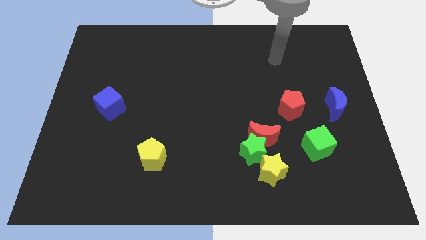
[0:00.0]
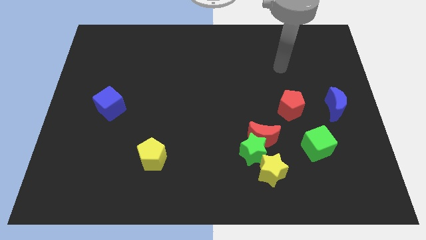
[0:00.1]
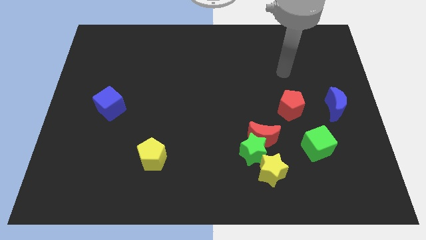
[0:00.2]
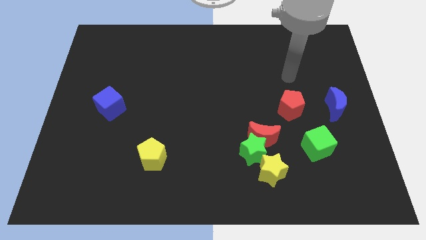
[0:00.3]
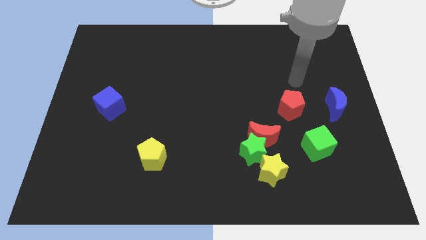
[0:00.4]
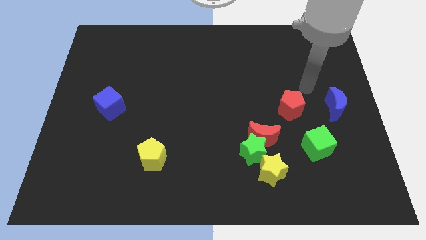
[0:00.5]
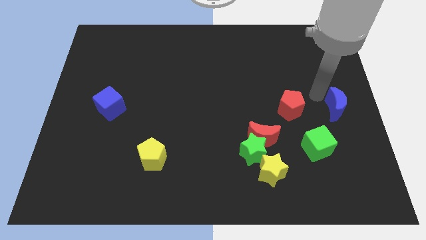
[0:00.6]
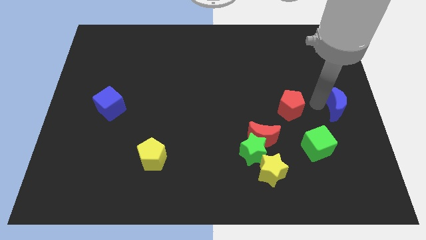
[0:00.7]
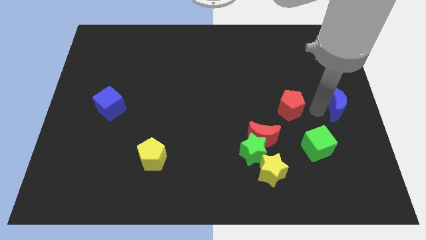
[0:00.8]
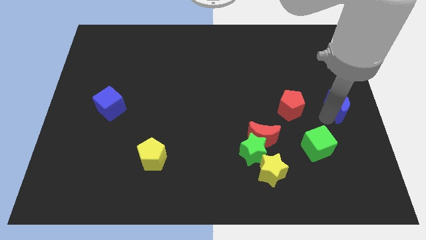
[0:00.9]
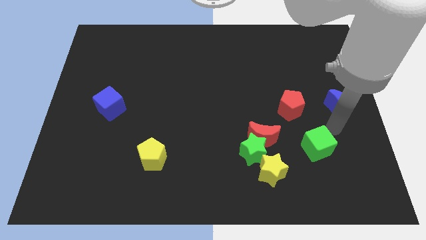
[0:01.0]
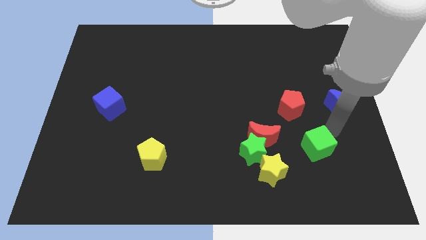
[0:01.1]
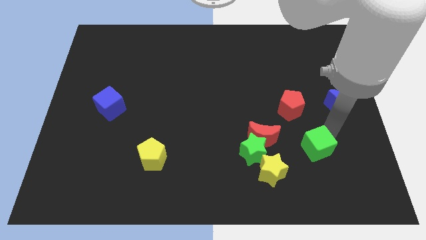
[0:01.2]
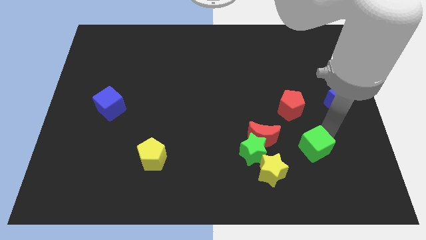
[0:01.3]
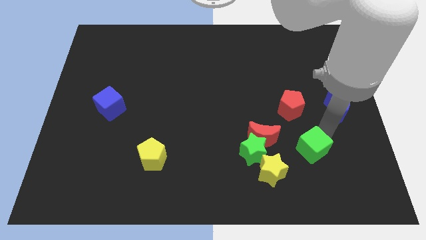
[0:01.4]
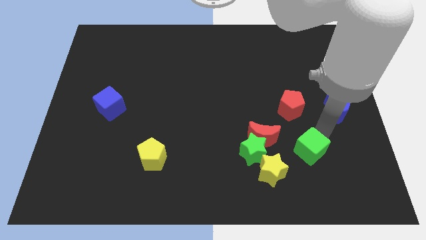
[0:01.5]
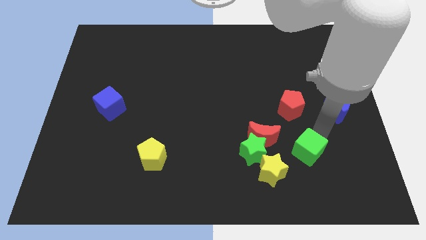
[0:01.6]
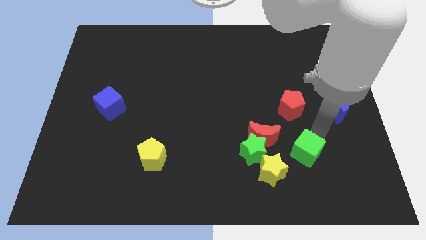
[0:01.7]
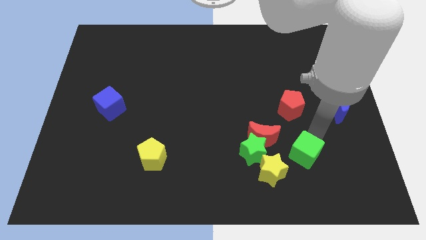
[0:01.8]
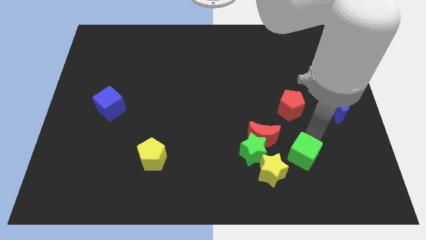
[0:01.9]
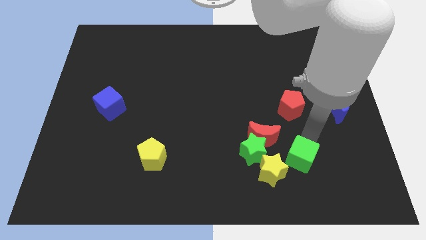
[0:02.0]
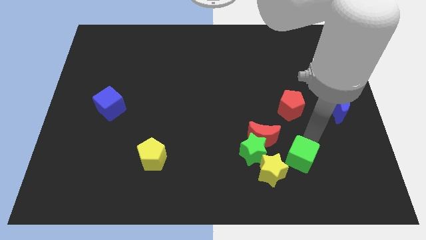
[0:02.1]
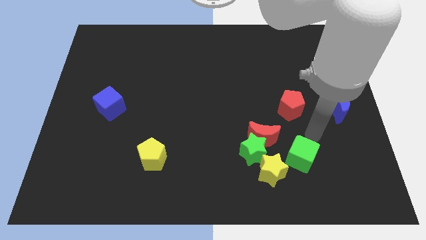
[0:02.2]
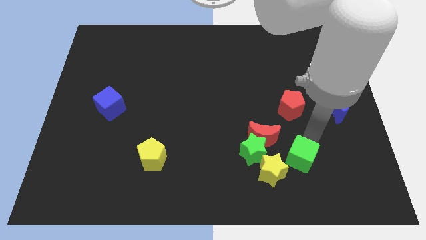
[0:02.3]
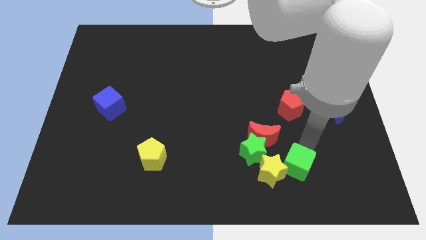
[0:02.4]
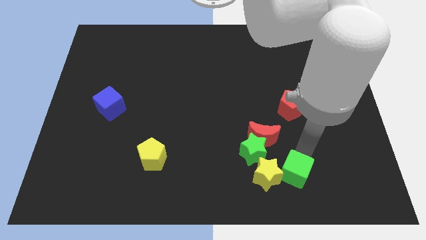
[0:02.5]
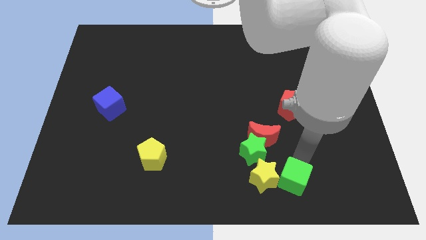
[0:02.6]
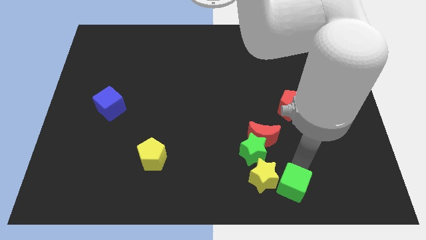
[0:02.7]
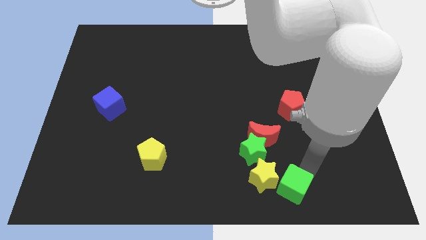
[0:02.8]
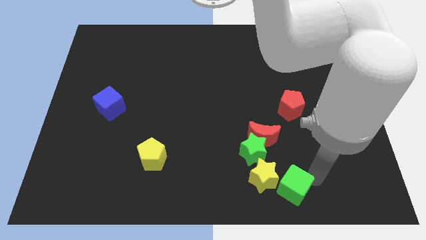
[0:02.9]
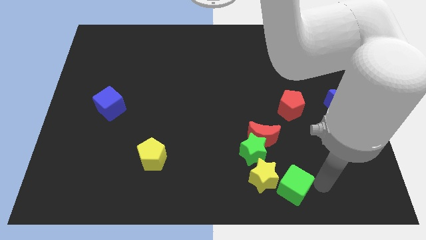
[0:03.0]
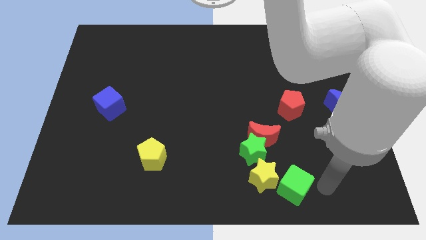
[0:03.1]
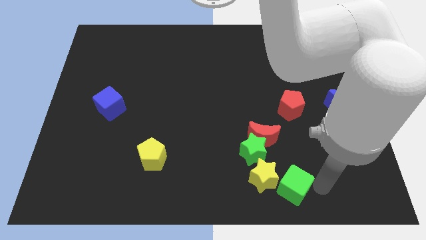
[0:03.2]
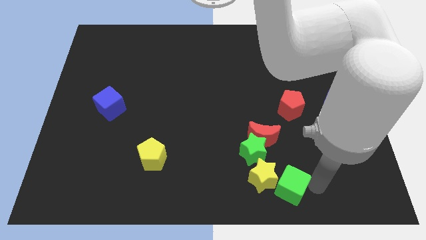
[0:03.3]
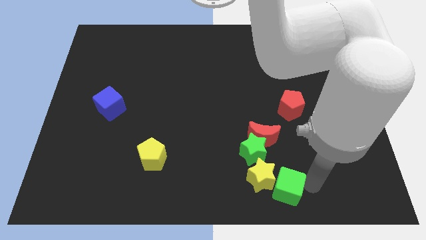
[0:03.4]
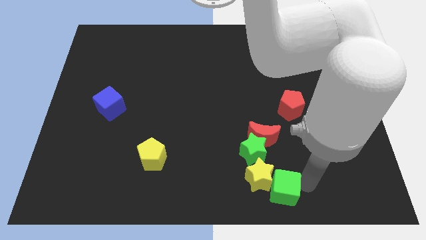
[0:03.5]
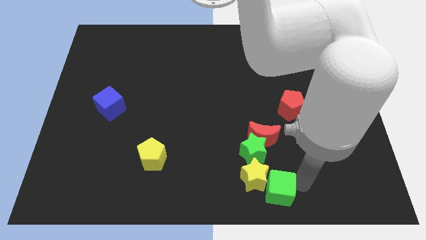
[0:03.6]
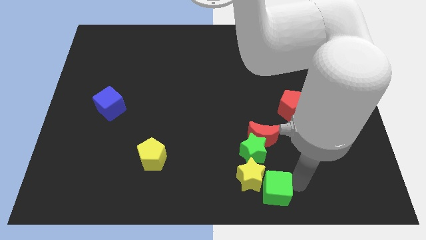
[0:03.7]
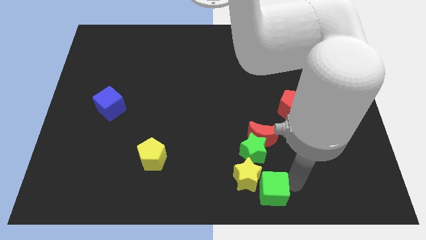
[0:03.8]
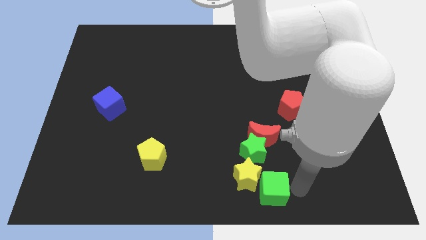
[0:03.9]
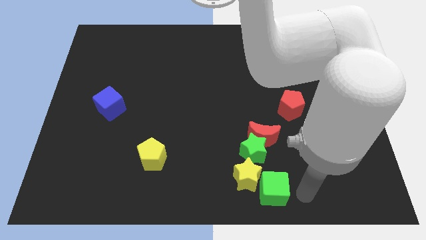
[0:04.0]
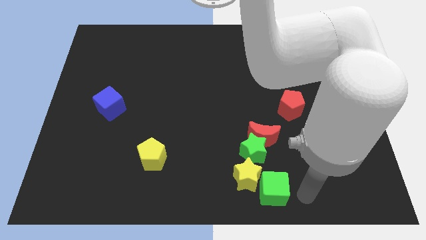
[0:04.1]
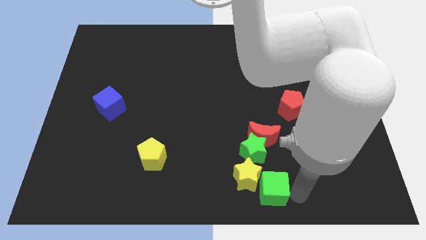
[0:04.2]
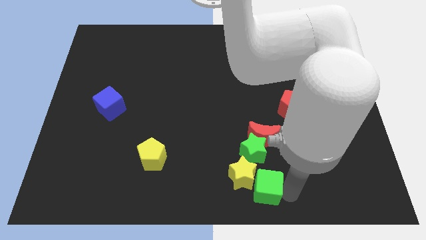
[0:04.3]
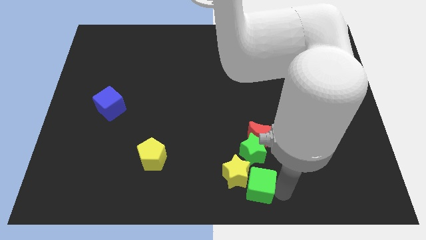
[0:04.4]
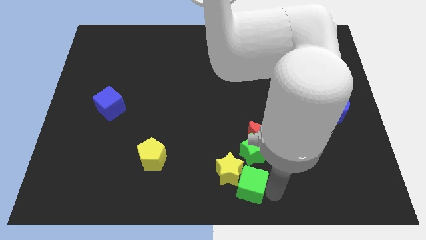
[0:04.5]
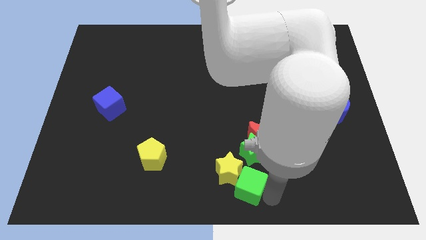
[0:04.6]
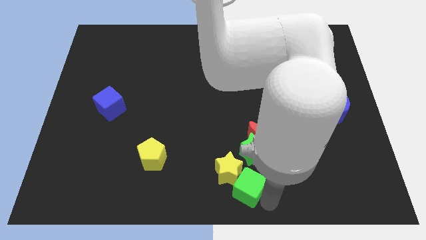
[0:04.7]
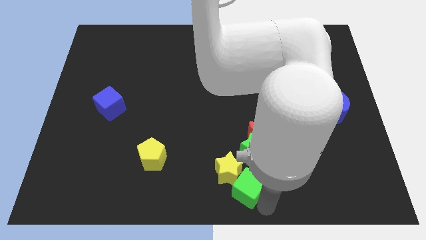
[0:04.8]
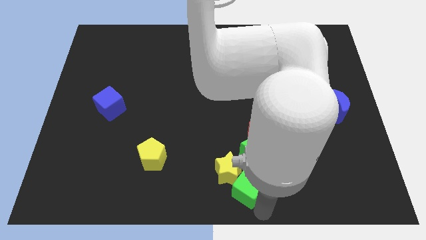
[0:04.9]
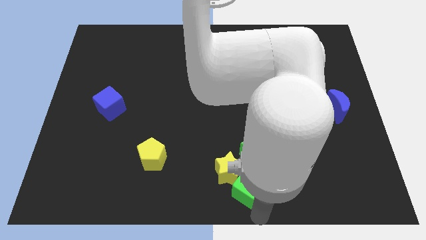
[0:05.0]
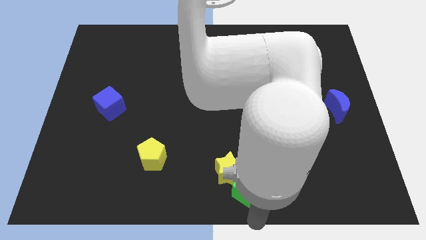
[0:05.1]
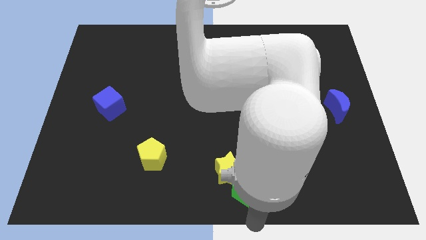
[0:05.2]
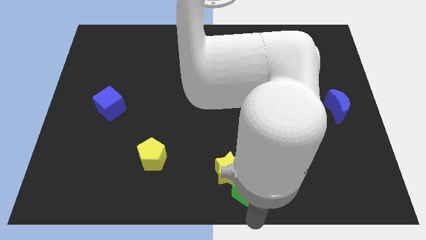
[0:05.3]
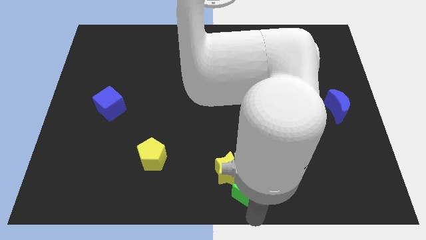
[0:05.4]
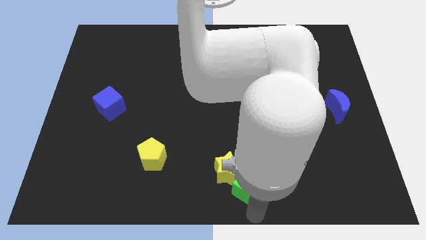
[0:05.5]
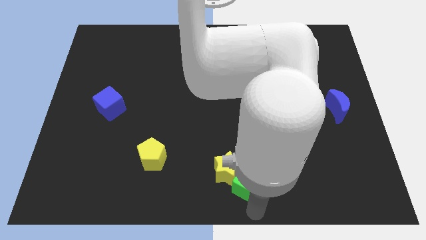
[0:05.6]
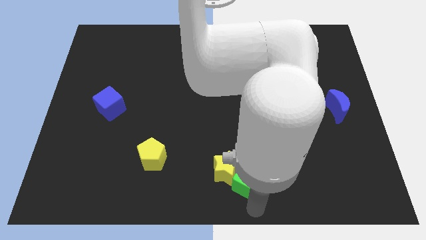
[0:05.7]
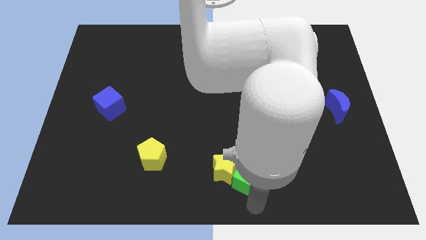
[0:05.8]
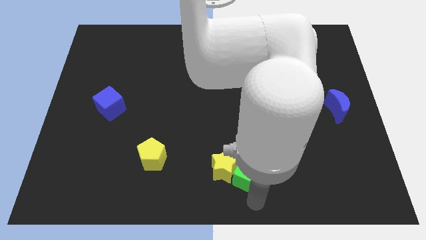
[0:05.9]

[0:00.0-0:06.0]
push the green cube close to the green star

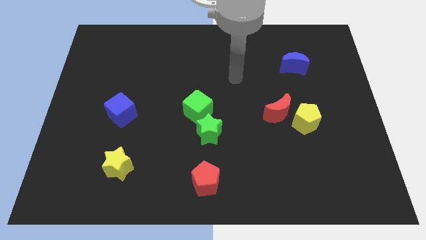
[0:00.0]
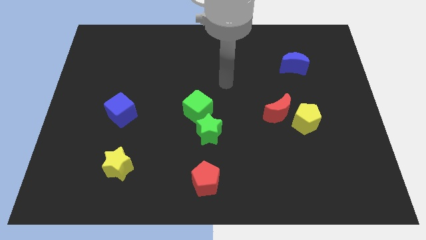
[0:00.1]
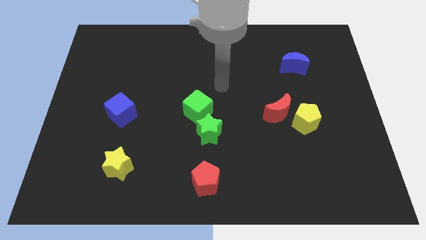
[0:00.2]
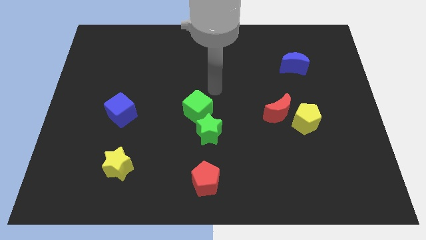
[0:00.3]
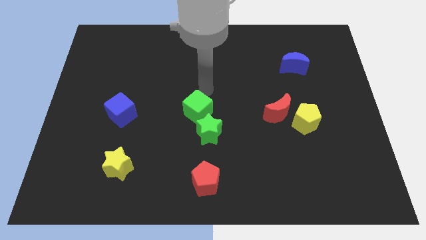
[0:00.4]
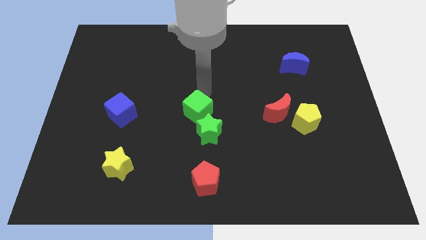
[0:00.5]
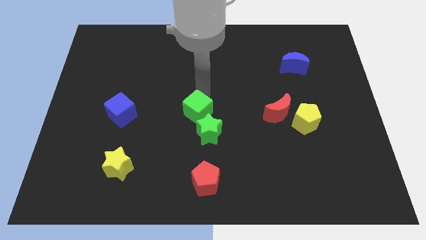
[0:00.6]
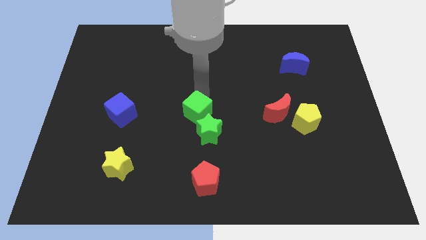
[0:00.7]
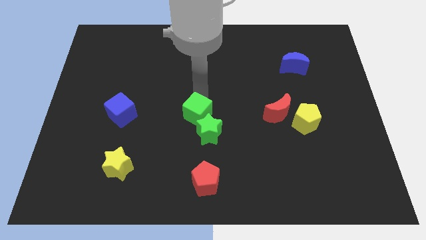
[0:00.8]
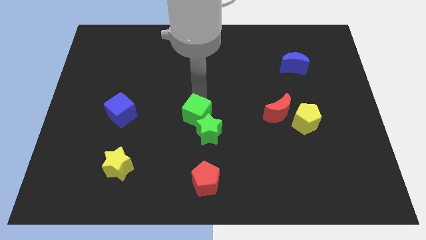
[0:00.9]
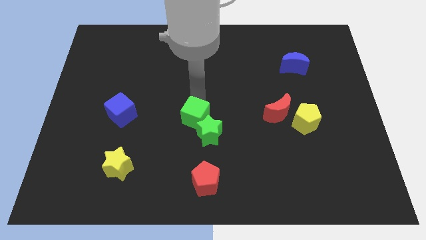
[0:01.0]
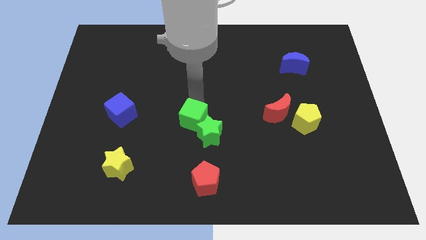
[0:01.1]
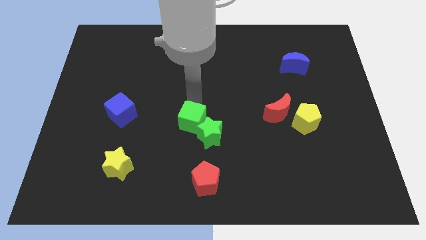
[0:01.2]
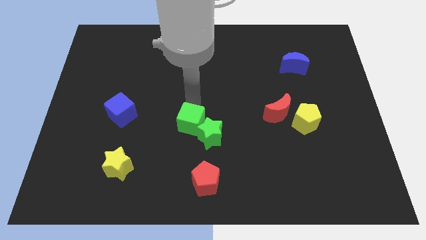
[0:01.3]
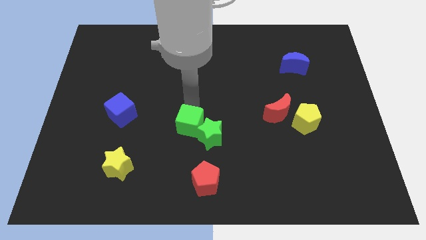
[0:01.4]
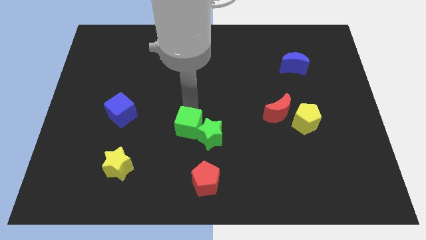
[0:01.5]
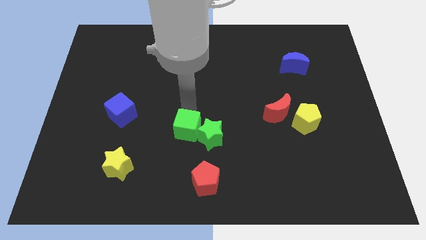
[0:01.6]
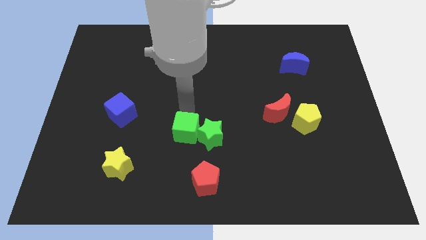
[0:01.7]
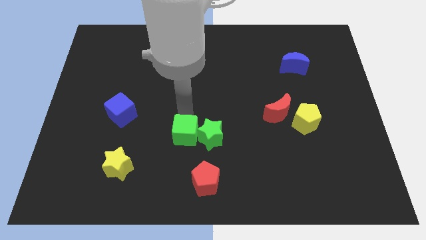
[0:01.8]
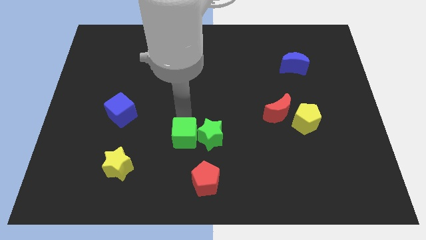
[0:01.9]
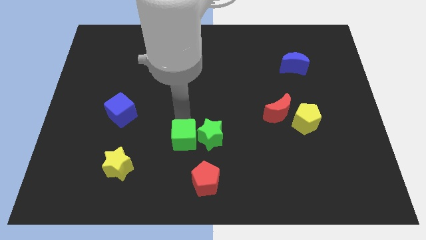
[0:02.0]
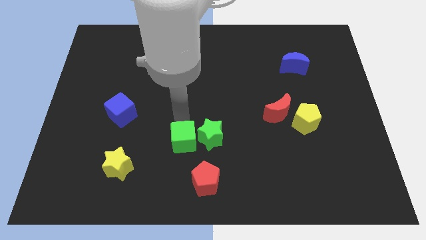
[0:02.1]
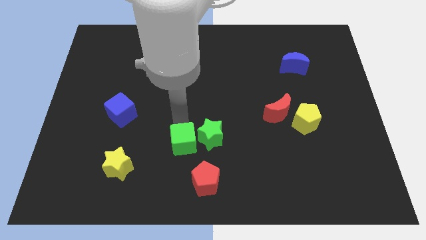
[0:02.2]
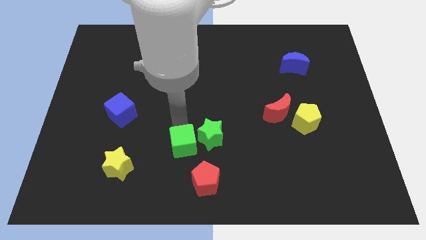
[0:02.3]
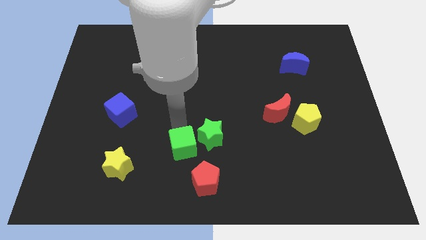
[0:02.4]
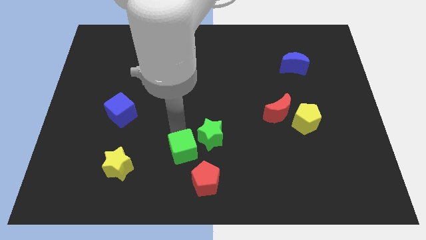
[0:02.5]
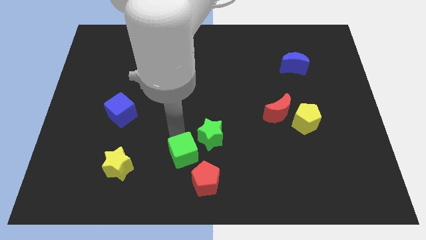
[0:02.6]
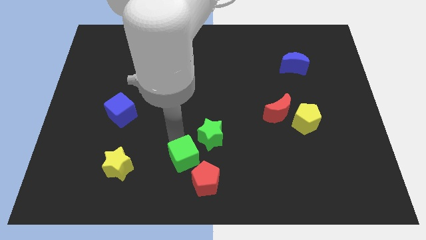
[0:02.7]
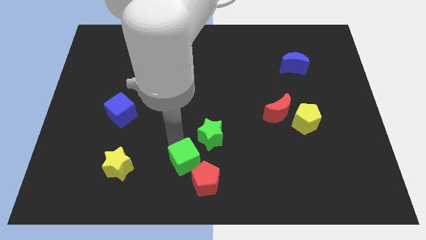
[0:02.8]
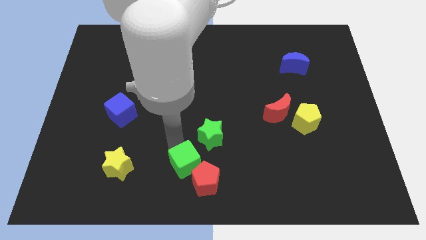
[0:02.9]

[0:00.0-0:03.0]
put the green cube close to the red pentagon
